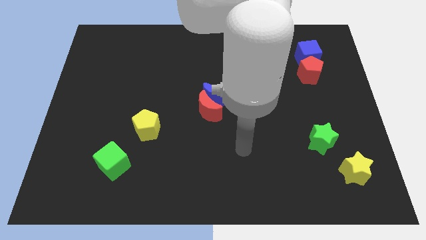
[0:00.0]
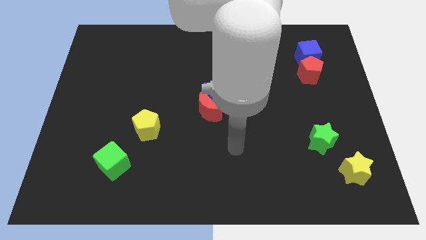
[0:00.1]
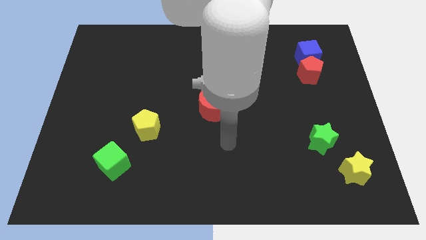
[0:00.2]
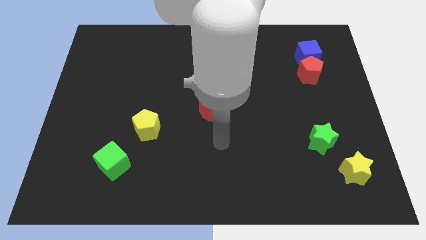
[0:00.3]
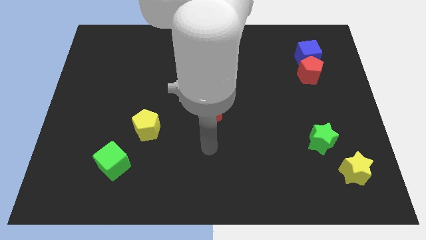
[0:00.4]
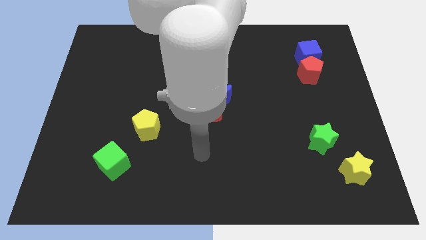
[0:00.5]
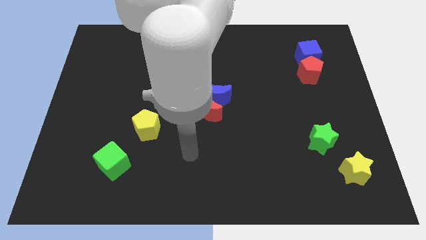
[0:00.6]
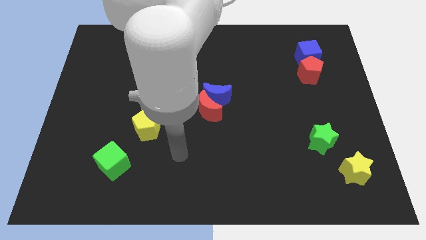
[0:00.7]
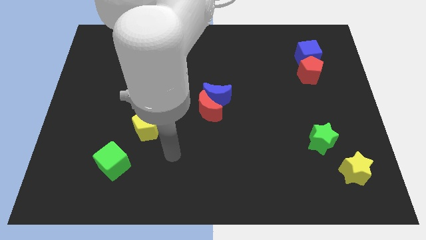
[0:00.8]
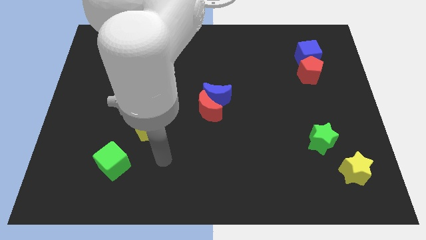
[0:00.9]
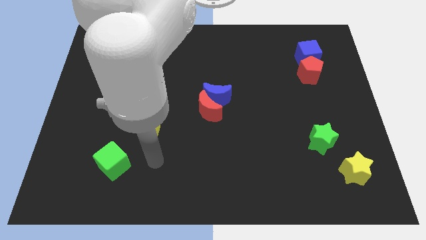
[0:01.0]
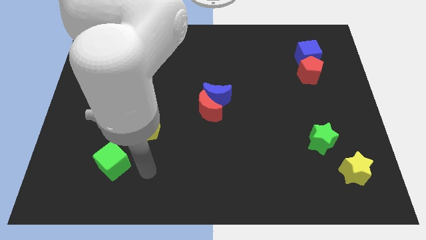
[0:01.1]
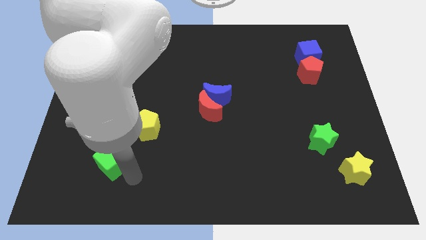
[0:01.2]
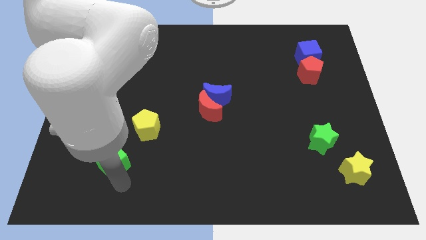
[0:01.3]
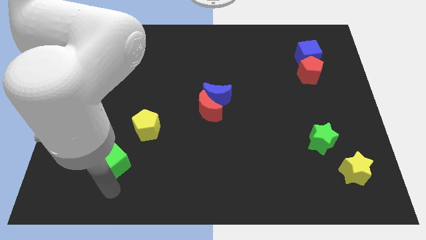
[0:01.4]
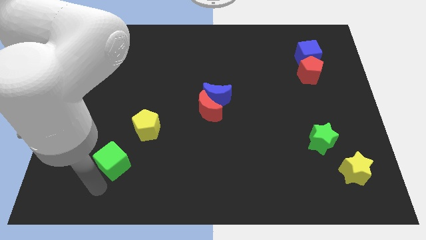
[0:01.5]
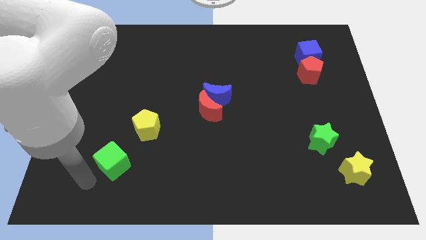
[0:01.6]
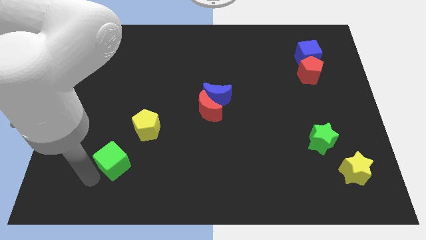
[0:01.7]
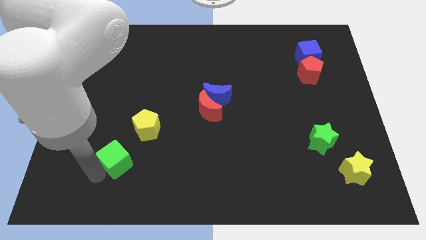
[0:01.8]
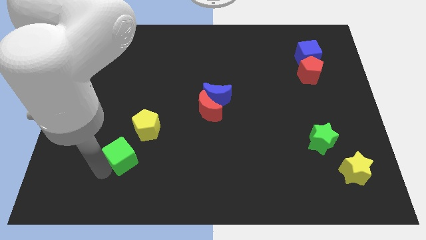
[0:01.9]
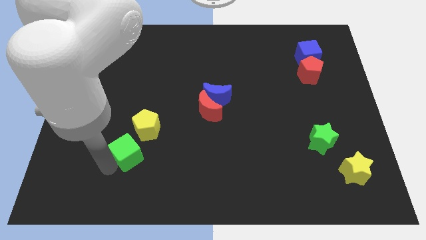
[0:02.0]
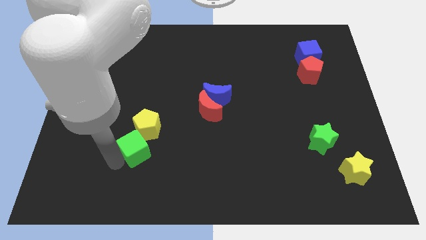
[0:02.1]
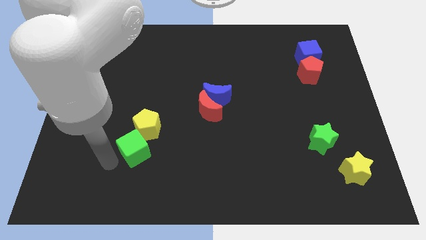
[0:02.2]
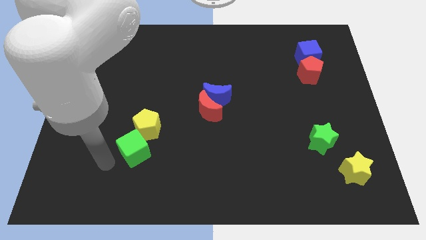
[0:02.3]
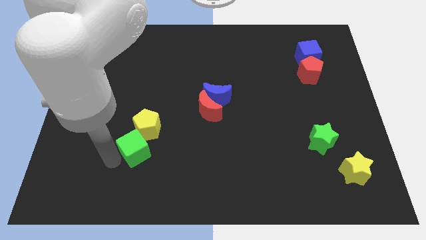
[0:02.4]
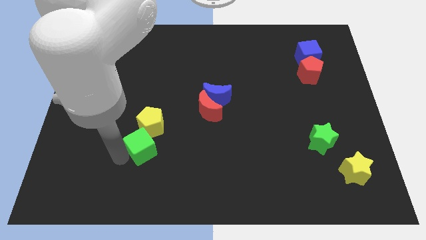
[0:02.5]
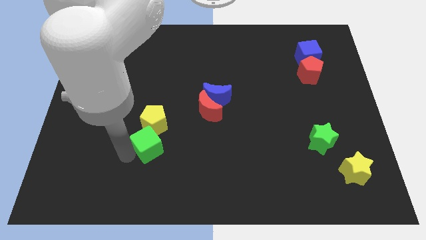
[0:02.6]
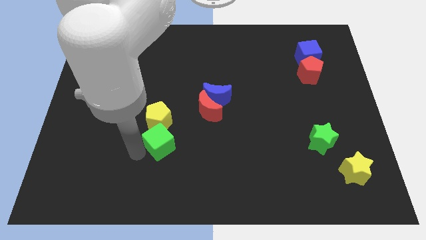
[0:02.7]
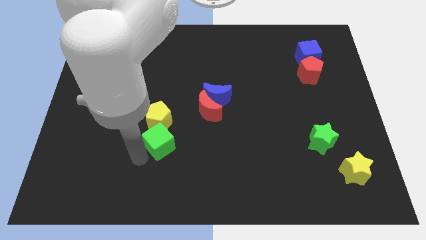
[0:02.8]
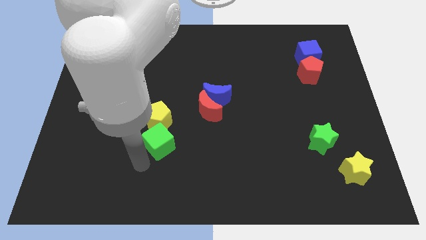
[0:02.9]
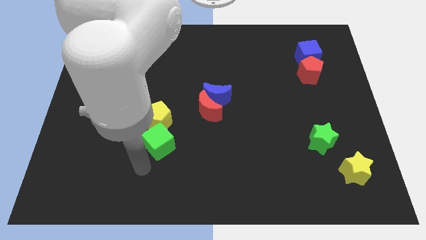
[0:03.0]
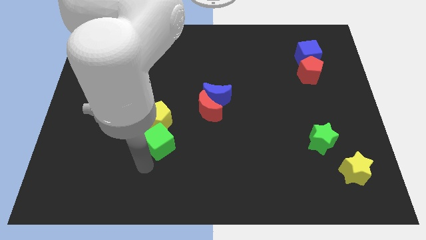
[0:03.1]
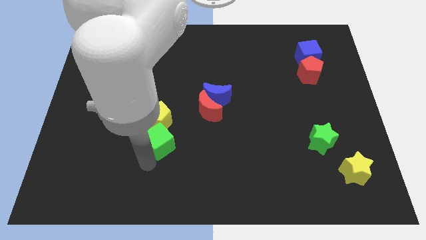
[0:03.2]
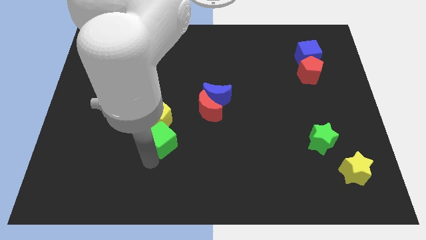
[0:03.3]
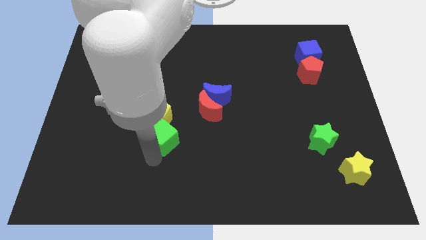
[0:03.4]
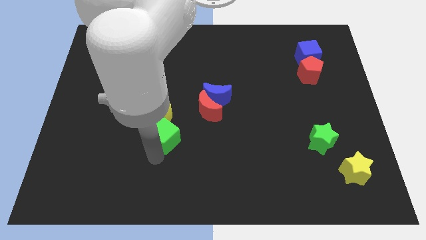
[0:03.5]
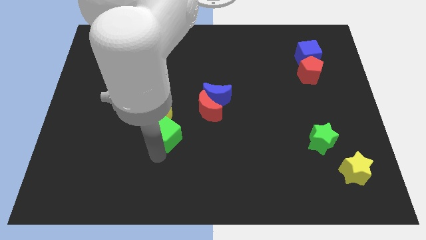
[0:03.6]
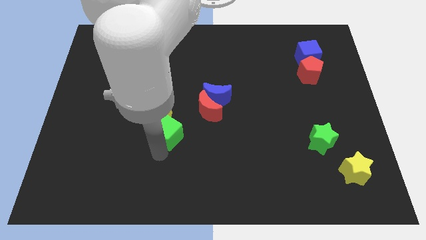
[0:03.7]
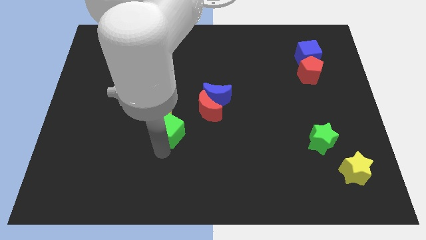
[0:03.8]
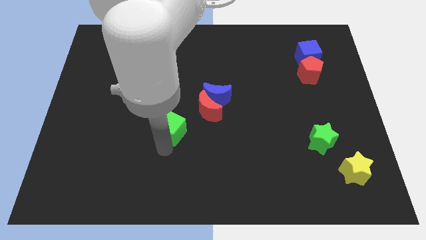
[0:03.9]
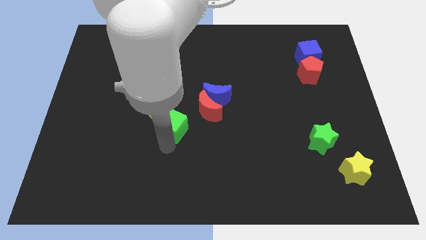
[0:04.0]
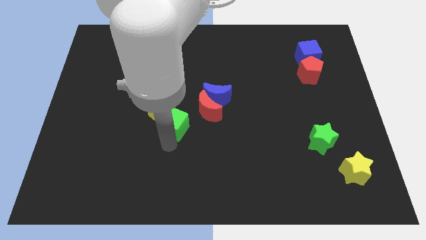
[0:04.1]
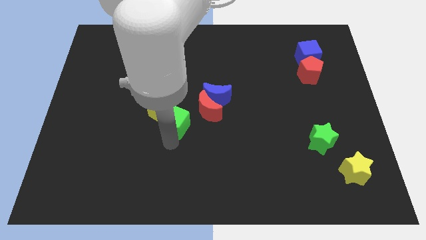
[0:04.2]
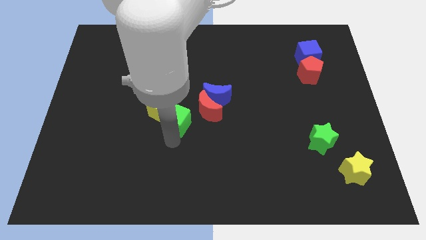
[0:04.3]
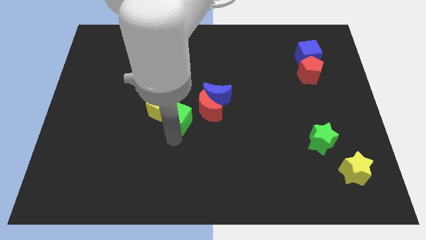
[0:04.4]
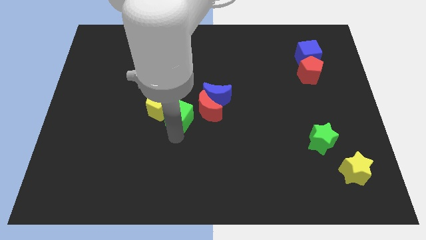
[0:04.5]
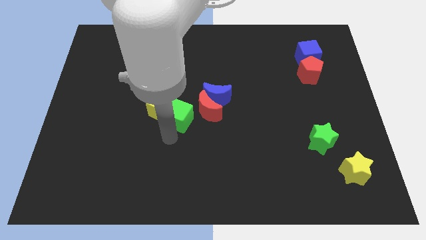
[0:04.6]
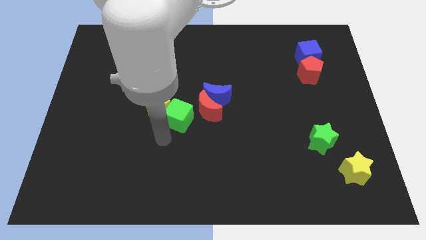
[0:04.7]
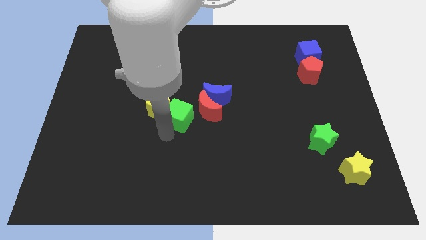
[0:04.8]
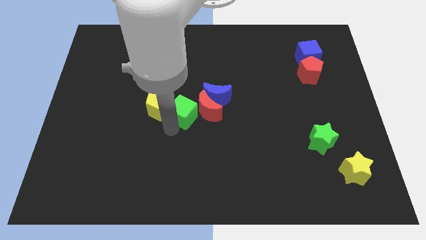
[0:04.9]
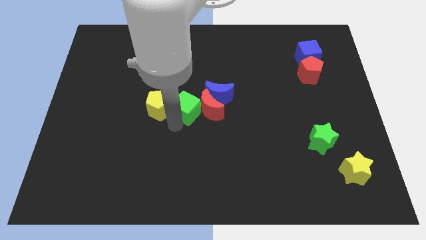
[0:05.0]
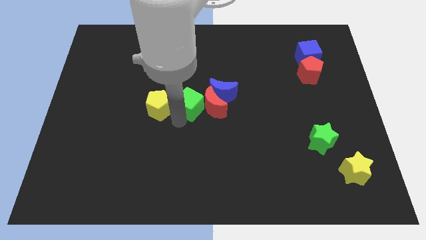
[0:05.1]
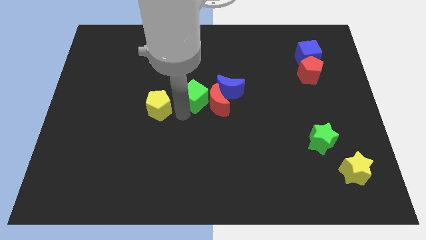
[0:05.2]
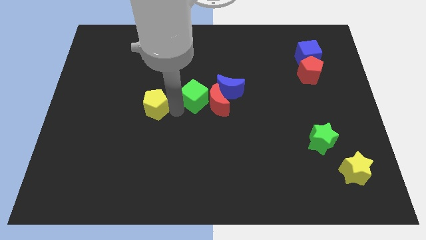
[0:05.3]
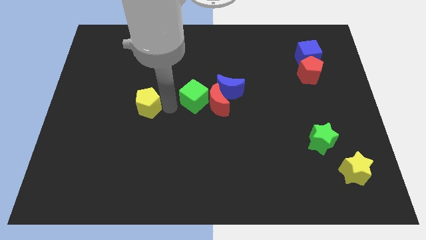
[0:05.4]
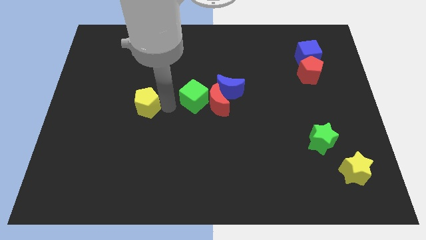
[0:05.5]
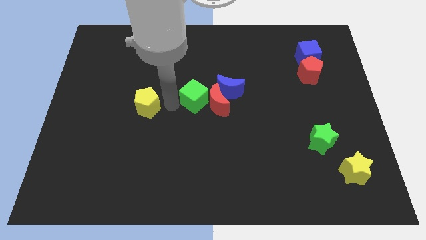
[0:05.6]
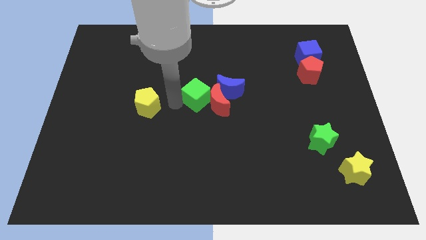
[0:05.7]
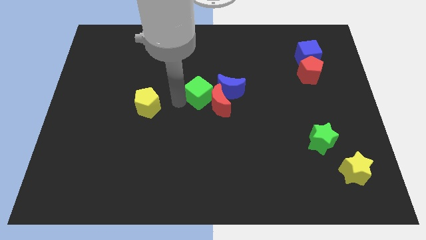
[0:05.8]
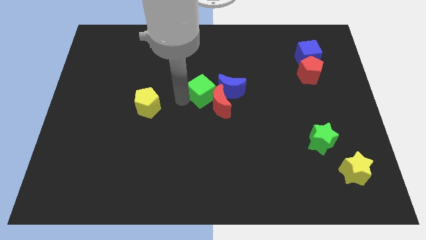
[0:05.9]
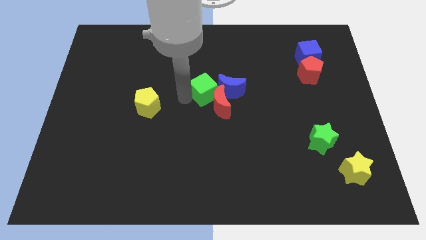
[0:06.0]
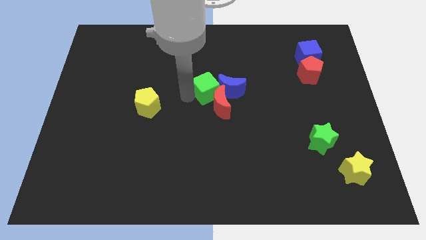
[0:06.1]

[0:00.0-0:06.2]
move the green cube next to the blue moon
